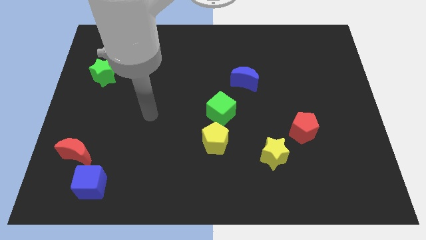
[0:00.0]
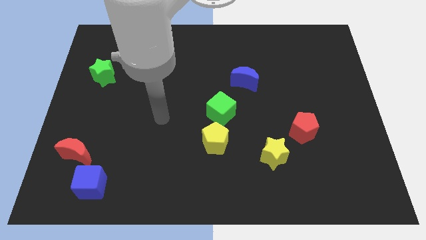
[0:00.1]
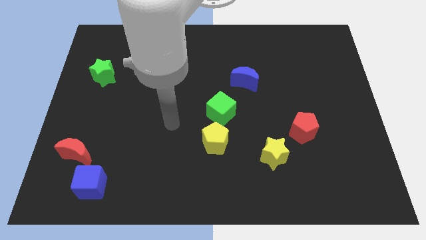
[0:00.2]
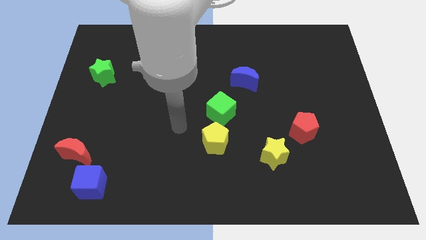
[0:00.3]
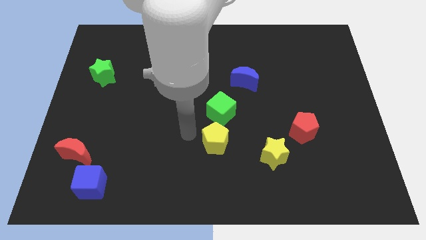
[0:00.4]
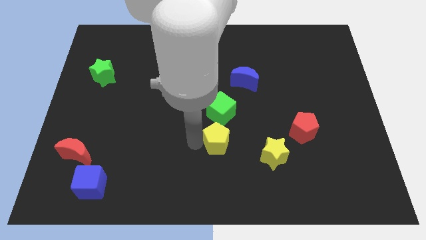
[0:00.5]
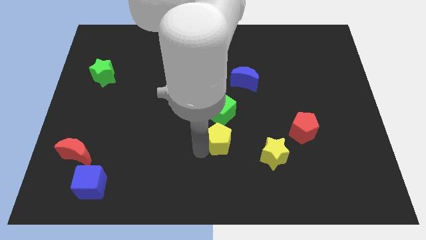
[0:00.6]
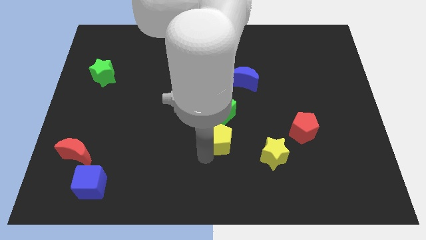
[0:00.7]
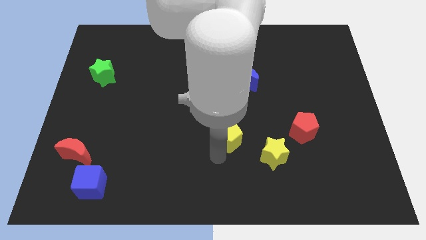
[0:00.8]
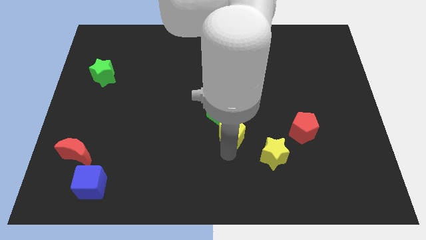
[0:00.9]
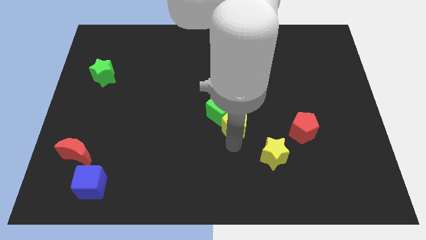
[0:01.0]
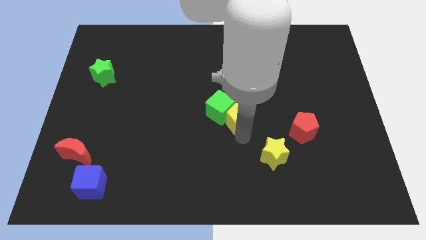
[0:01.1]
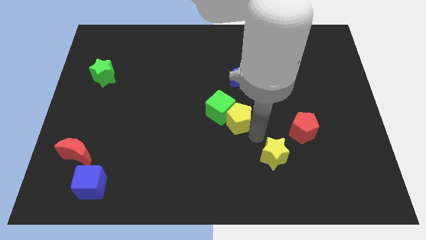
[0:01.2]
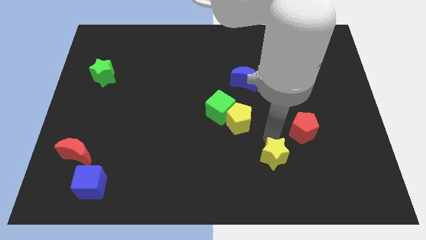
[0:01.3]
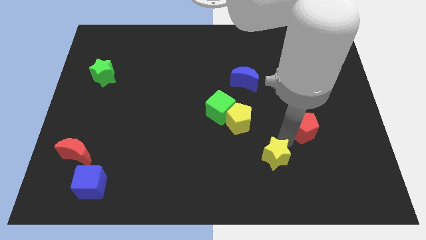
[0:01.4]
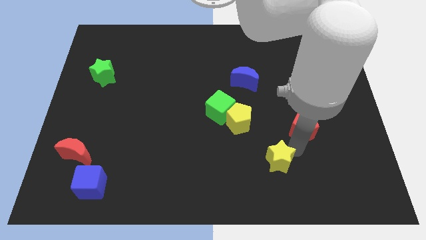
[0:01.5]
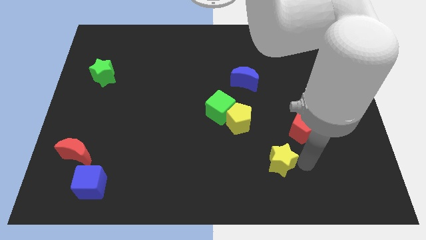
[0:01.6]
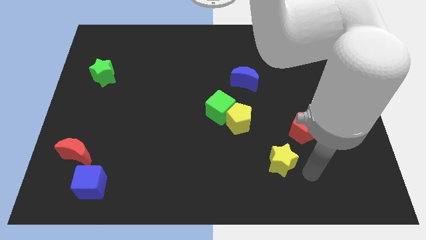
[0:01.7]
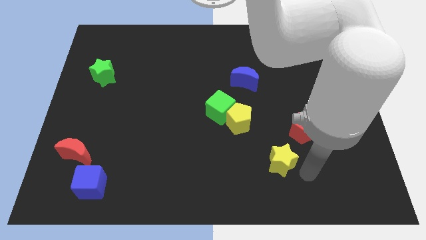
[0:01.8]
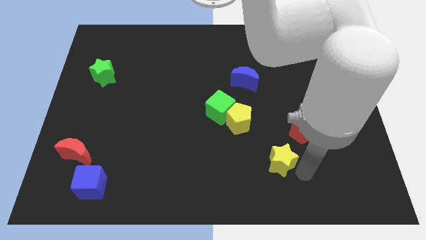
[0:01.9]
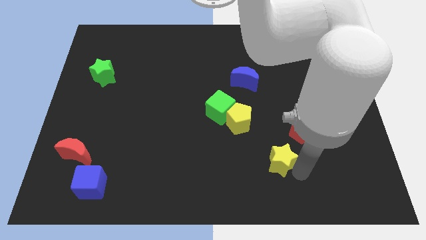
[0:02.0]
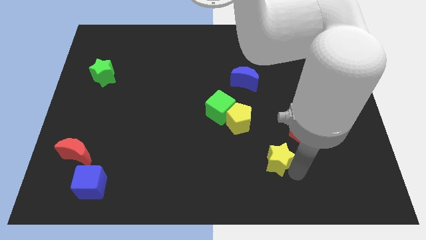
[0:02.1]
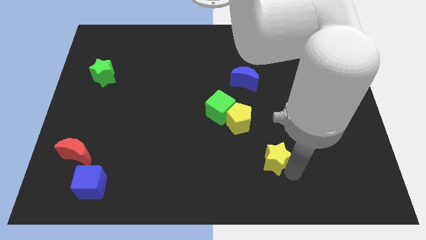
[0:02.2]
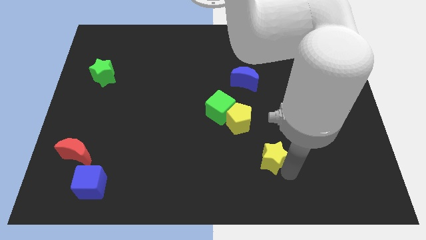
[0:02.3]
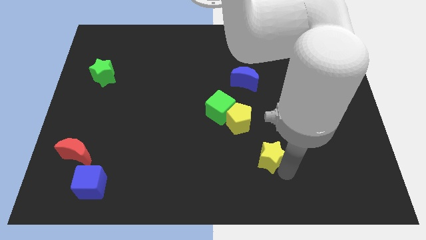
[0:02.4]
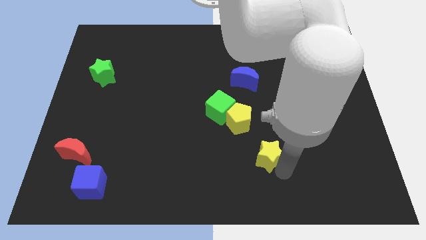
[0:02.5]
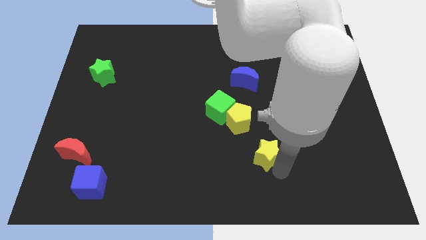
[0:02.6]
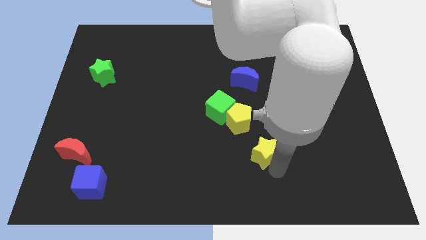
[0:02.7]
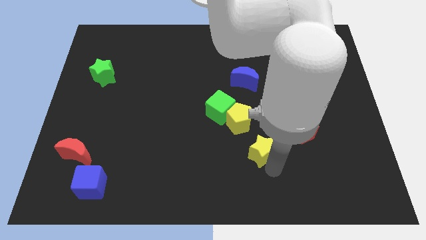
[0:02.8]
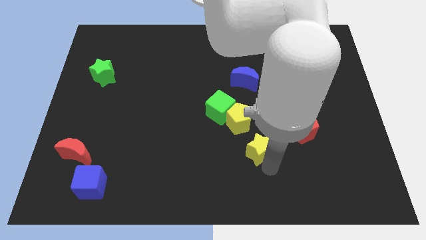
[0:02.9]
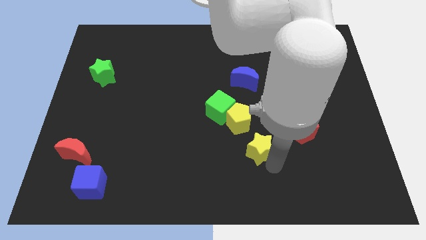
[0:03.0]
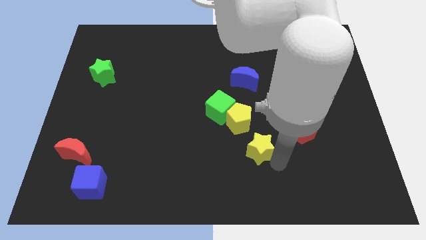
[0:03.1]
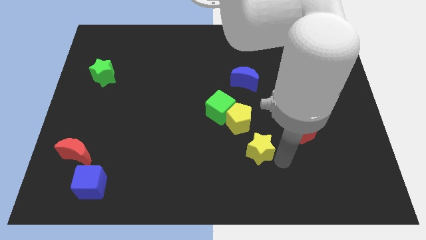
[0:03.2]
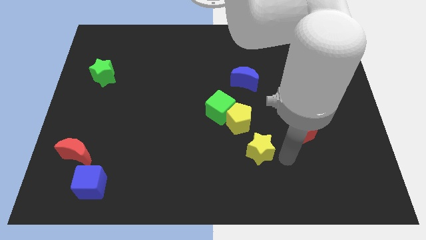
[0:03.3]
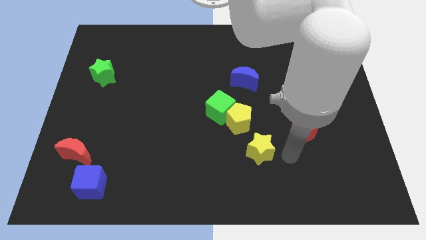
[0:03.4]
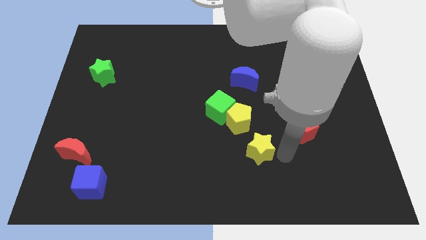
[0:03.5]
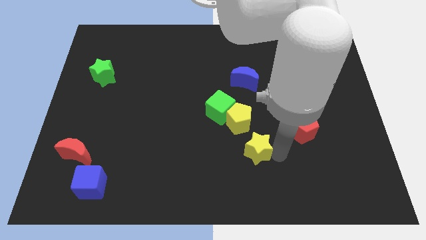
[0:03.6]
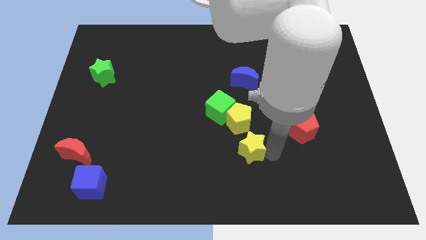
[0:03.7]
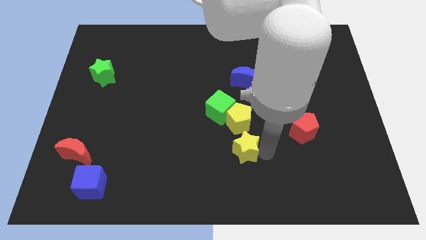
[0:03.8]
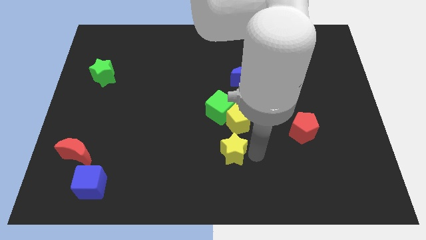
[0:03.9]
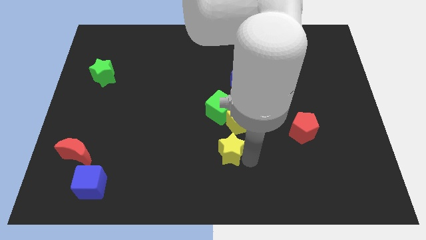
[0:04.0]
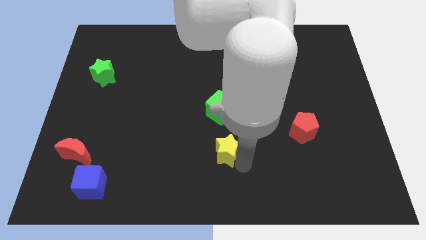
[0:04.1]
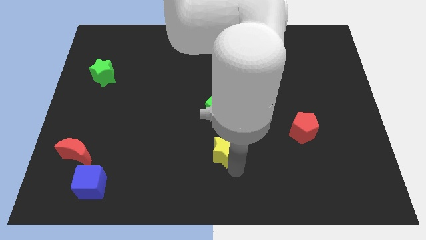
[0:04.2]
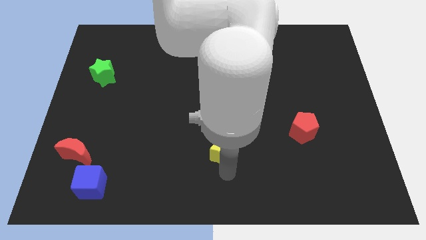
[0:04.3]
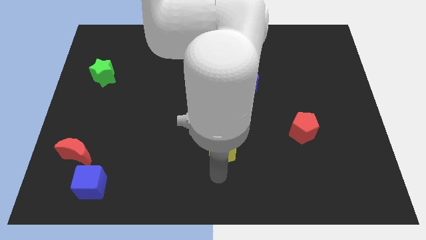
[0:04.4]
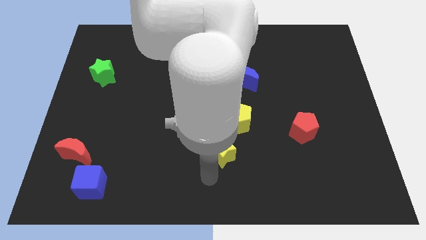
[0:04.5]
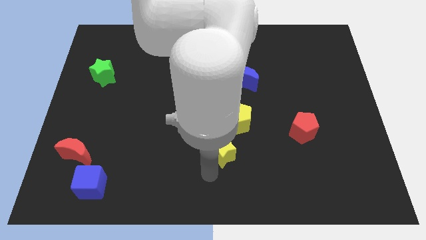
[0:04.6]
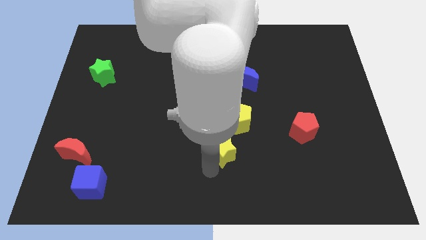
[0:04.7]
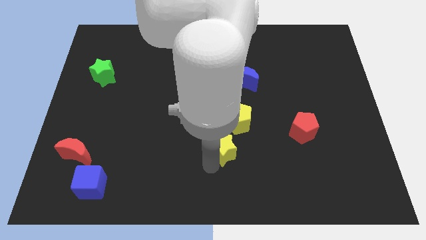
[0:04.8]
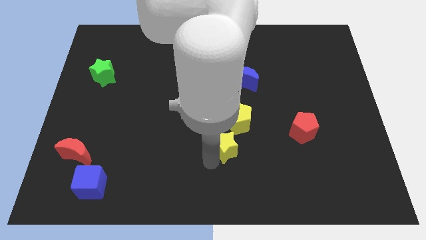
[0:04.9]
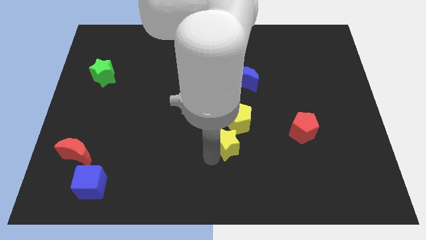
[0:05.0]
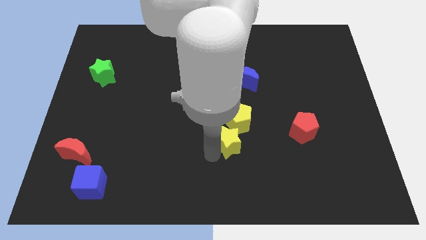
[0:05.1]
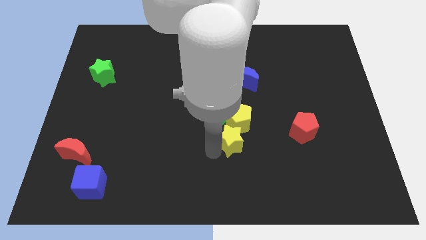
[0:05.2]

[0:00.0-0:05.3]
move the yellow star next to the yellow pentagon

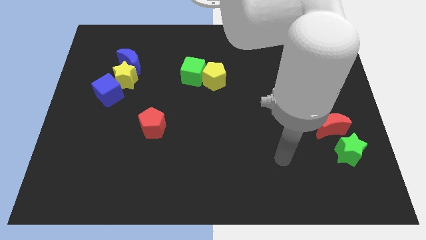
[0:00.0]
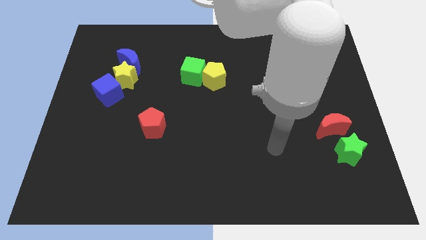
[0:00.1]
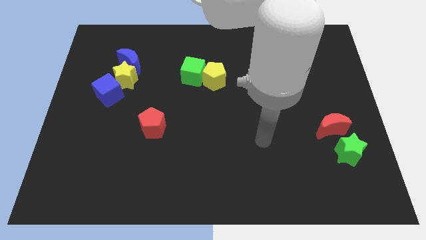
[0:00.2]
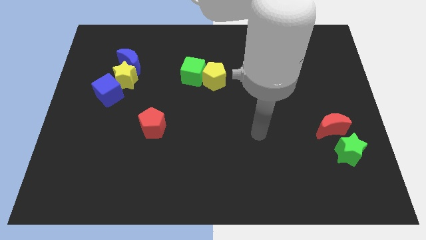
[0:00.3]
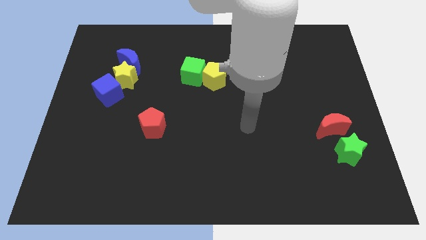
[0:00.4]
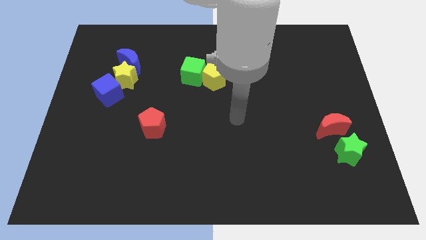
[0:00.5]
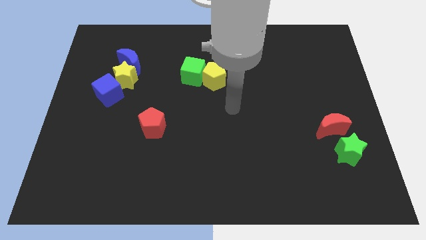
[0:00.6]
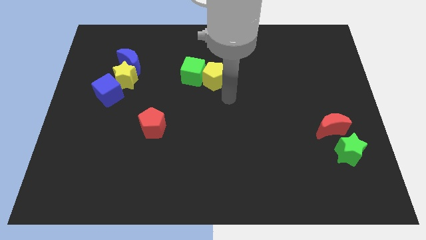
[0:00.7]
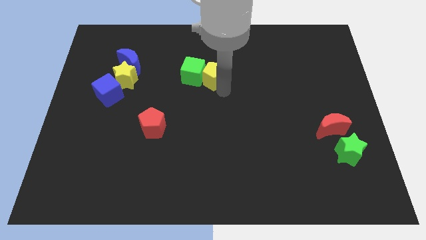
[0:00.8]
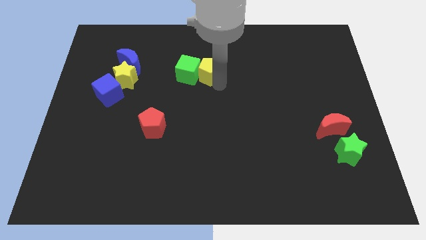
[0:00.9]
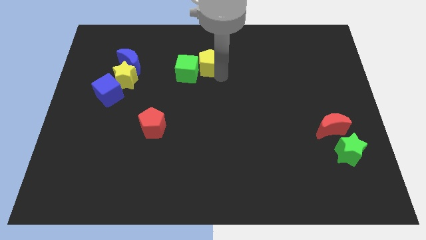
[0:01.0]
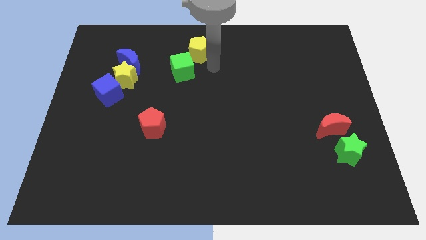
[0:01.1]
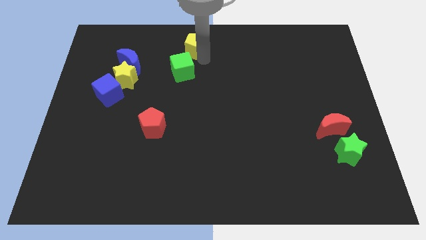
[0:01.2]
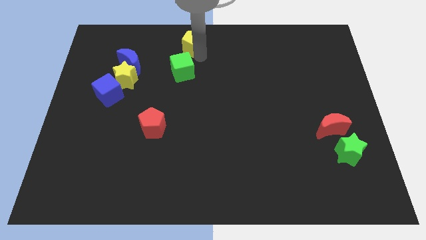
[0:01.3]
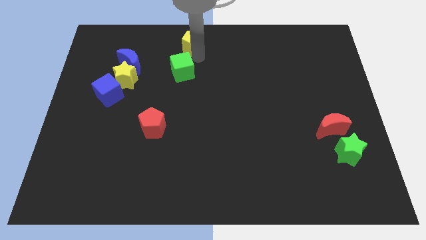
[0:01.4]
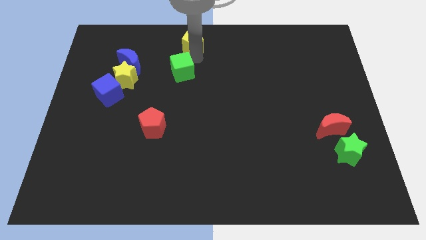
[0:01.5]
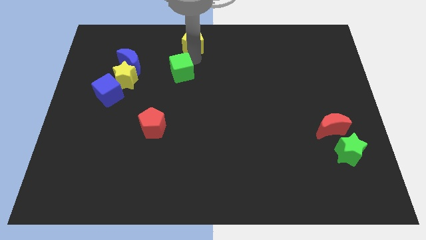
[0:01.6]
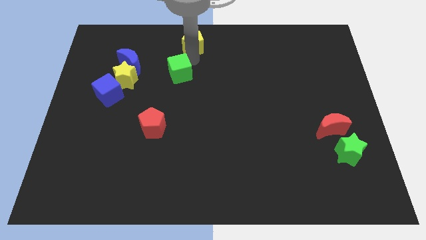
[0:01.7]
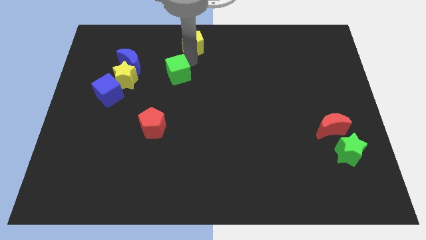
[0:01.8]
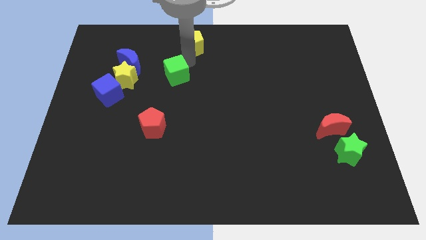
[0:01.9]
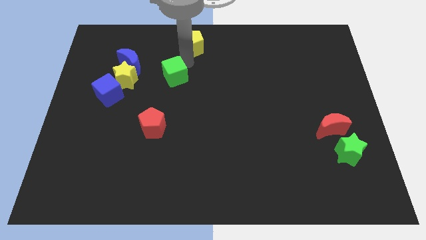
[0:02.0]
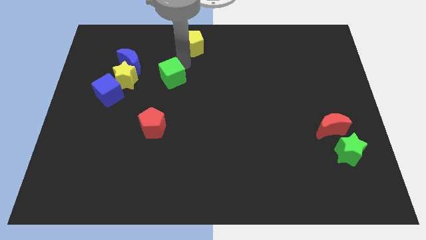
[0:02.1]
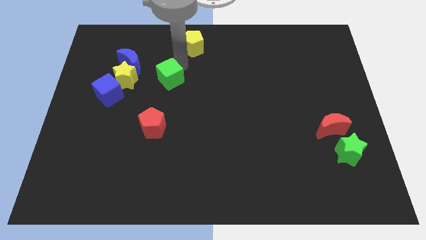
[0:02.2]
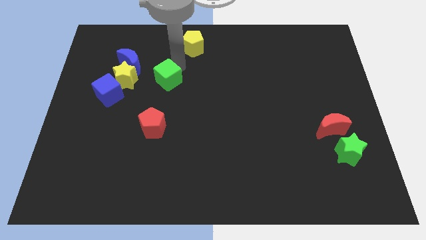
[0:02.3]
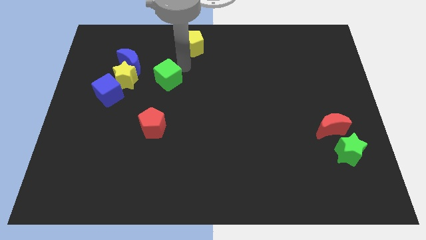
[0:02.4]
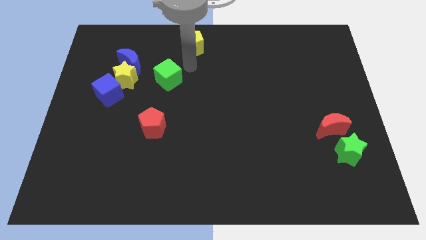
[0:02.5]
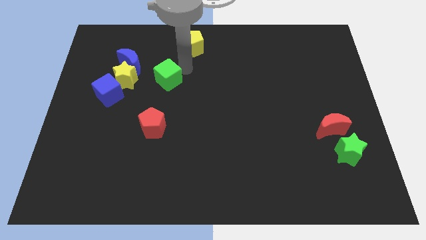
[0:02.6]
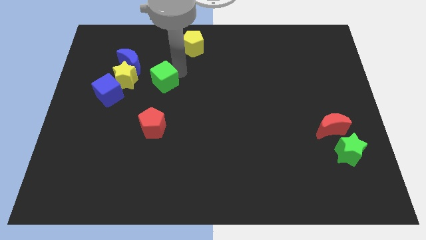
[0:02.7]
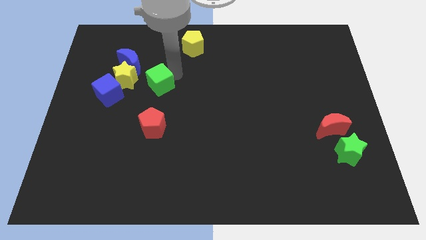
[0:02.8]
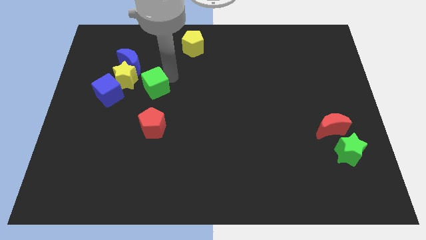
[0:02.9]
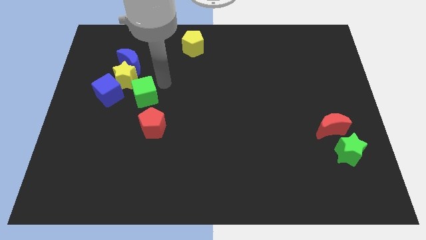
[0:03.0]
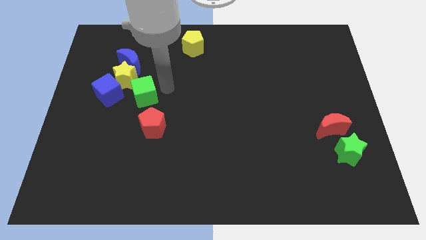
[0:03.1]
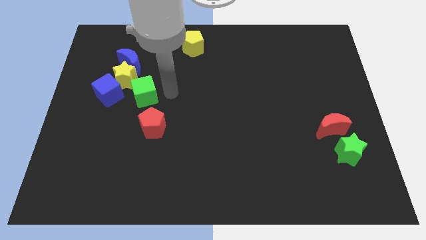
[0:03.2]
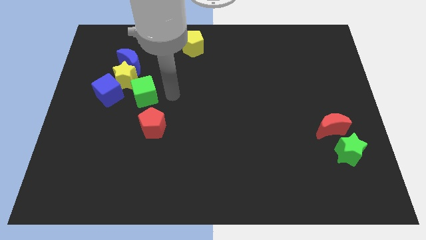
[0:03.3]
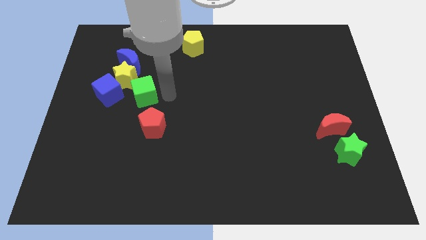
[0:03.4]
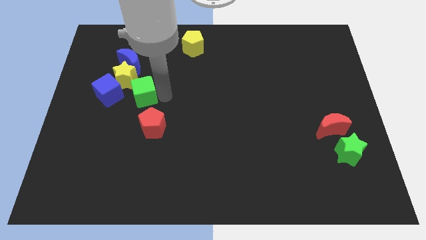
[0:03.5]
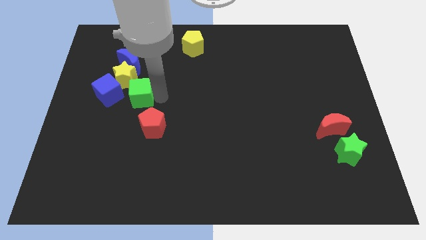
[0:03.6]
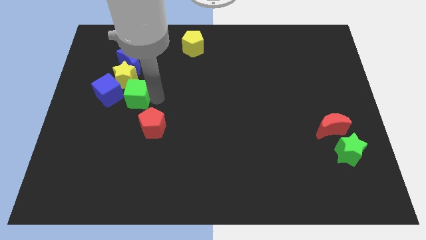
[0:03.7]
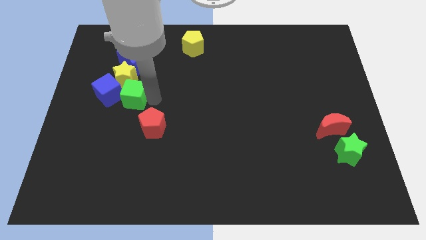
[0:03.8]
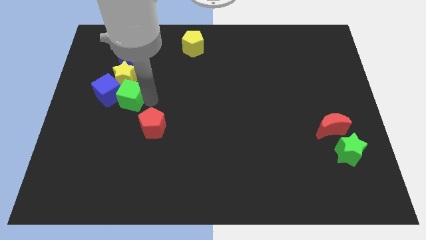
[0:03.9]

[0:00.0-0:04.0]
push the green cube to the blue cube
